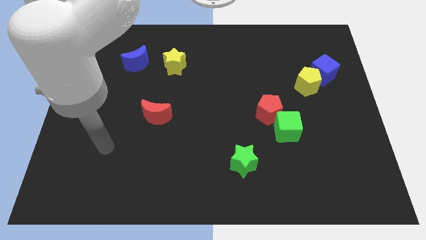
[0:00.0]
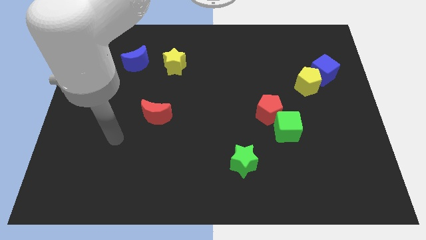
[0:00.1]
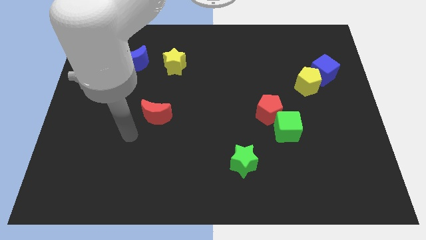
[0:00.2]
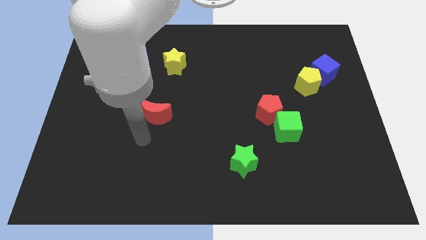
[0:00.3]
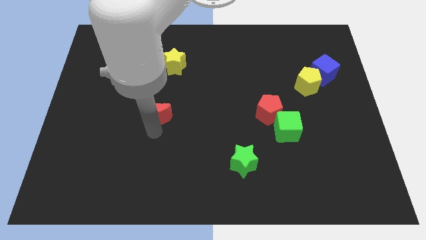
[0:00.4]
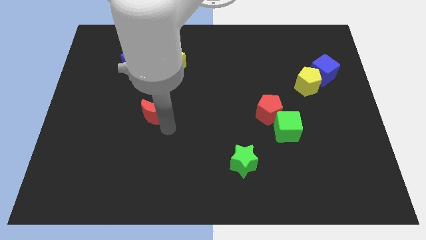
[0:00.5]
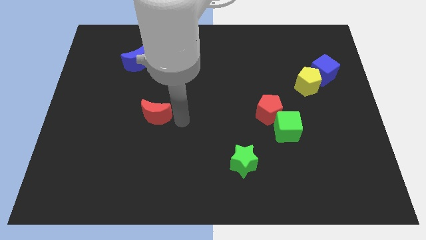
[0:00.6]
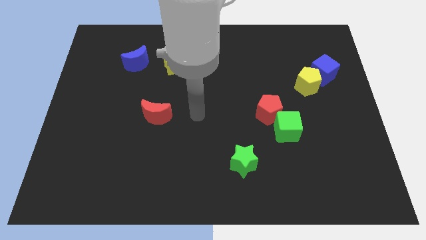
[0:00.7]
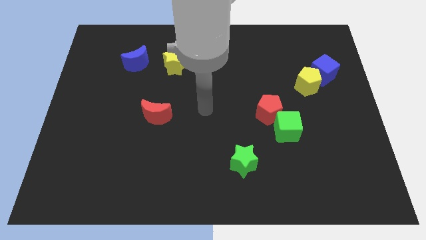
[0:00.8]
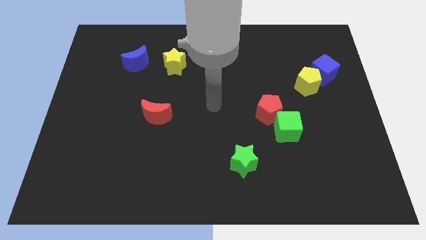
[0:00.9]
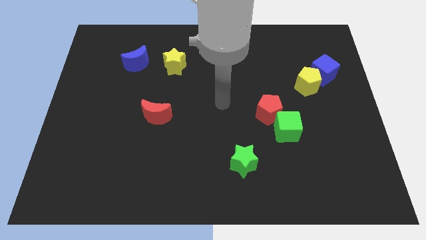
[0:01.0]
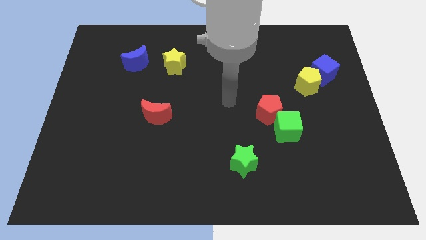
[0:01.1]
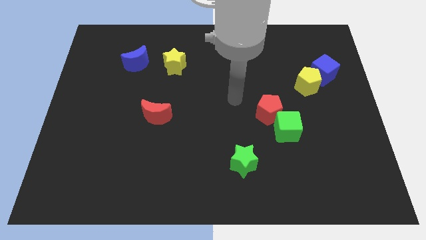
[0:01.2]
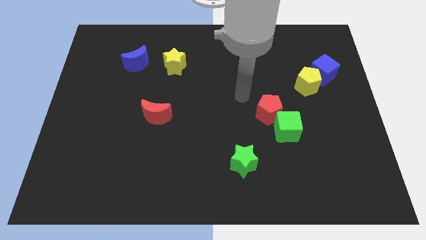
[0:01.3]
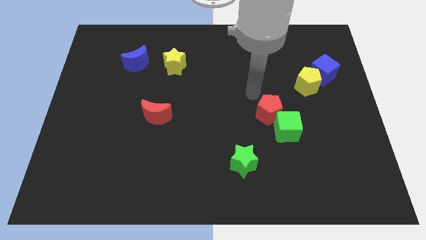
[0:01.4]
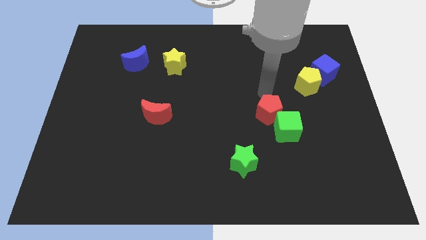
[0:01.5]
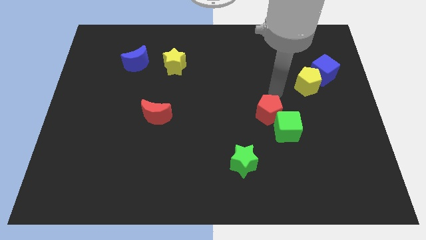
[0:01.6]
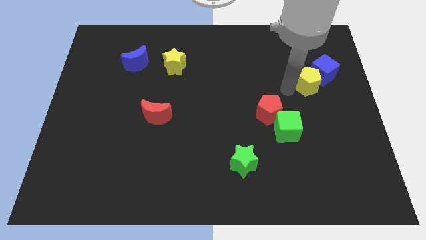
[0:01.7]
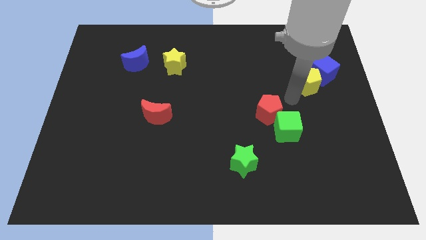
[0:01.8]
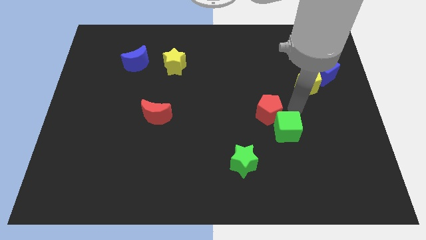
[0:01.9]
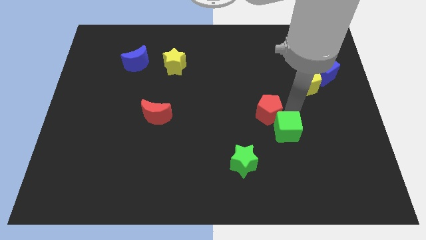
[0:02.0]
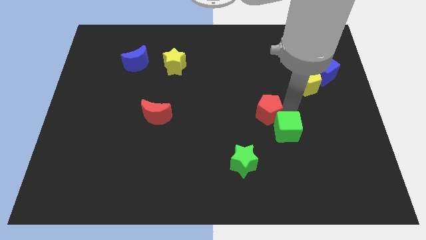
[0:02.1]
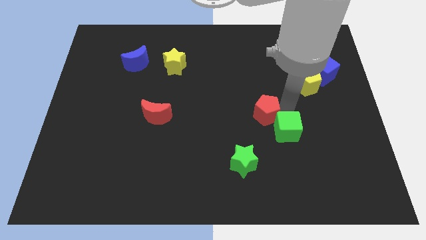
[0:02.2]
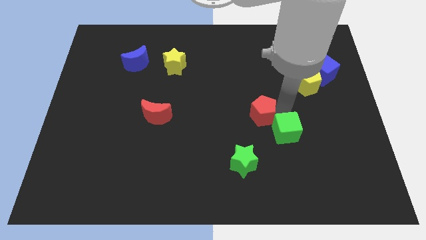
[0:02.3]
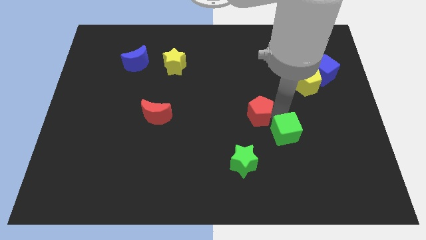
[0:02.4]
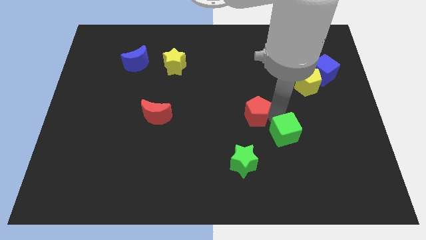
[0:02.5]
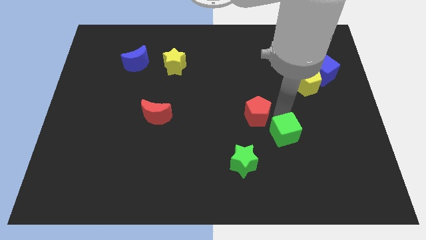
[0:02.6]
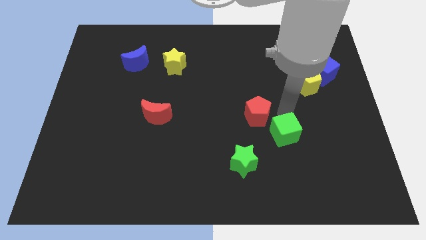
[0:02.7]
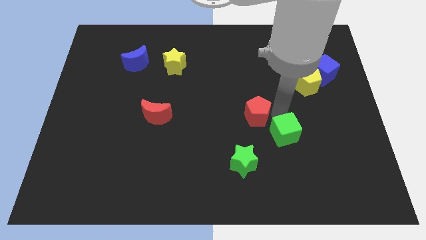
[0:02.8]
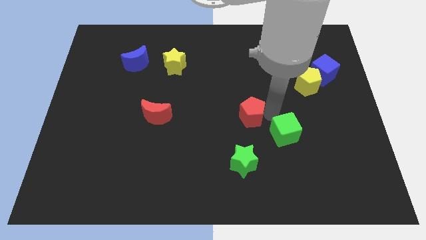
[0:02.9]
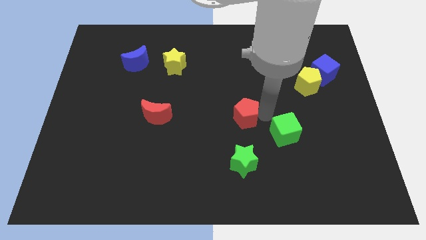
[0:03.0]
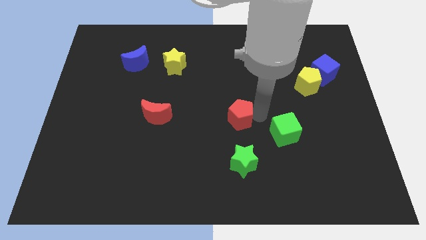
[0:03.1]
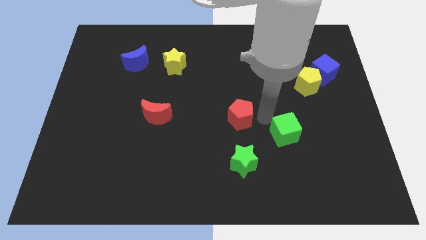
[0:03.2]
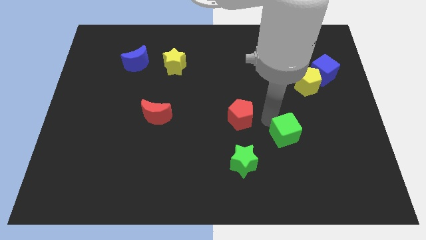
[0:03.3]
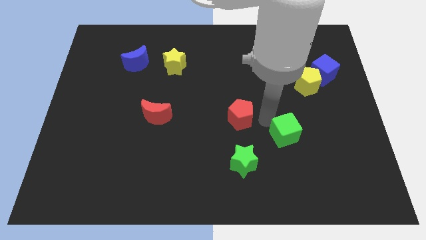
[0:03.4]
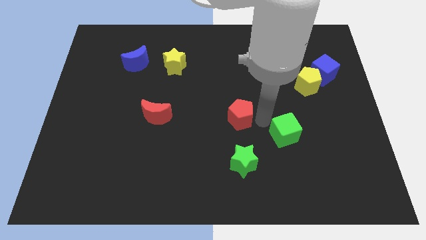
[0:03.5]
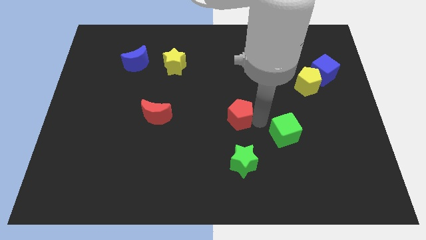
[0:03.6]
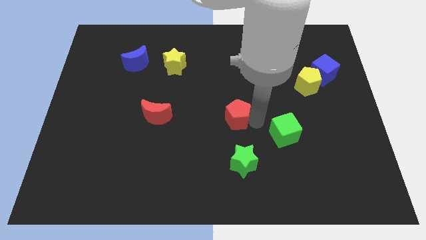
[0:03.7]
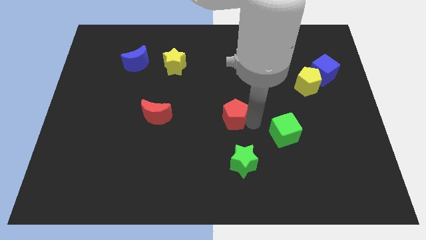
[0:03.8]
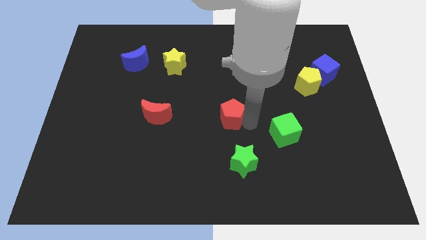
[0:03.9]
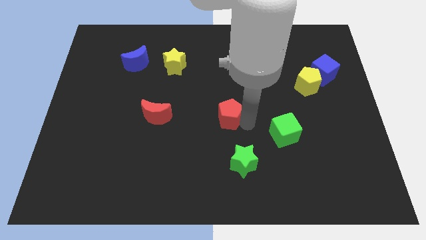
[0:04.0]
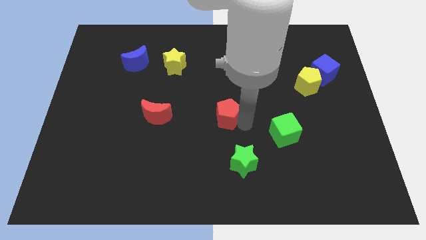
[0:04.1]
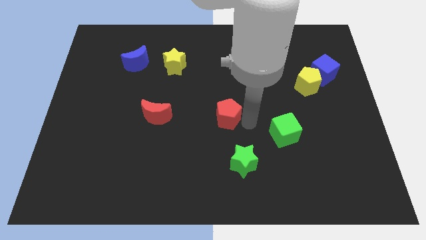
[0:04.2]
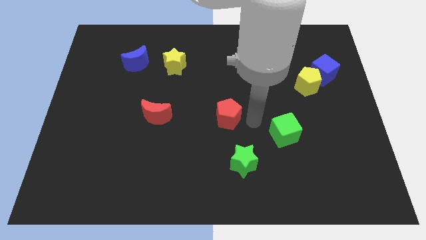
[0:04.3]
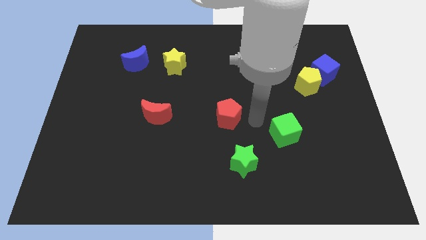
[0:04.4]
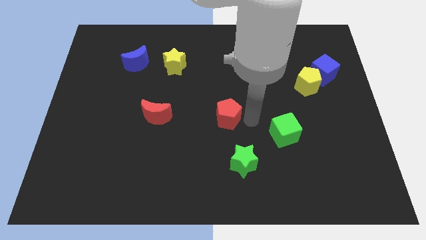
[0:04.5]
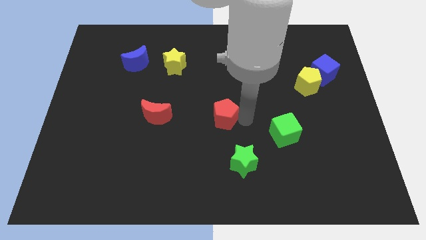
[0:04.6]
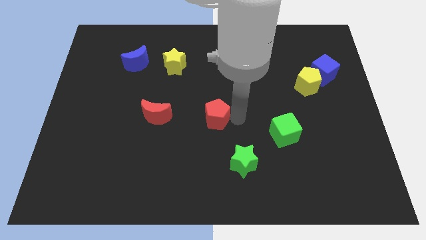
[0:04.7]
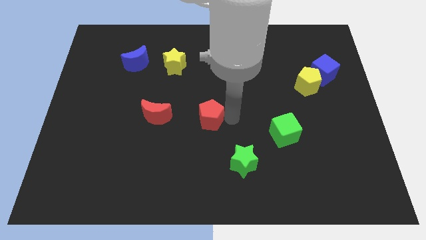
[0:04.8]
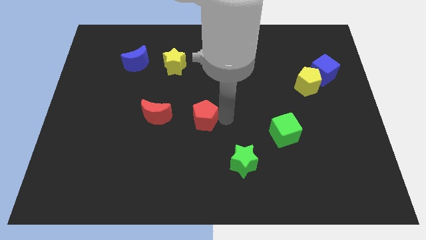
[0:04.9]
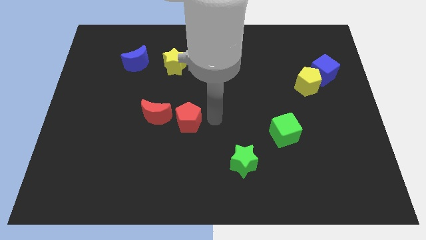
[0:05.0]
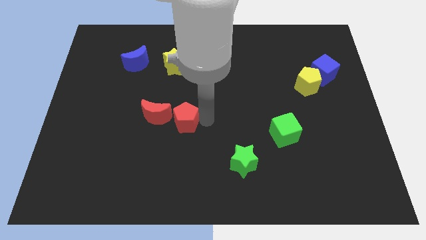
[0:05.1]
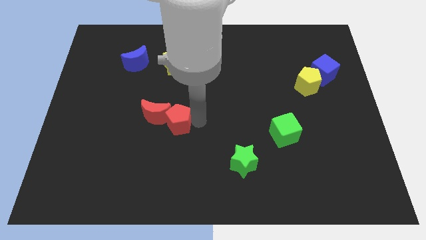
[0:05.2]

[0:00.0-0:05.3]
push the red pentagon to the red moon

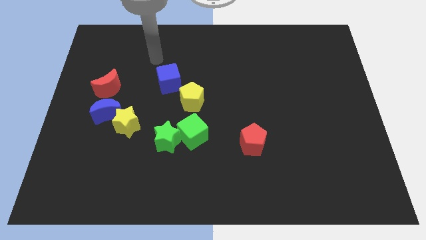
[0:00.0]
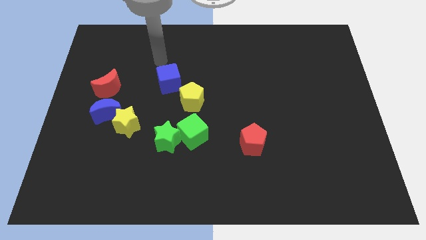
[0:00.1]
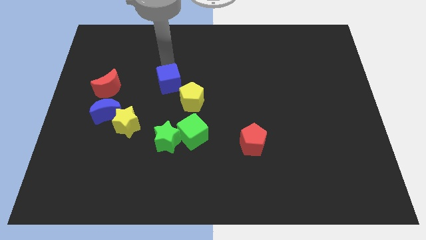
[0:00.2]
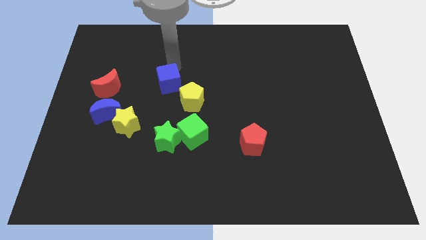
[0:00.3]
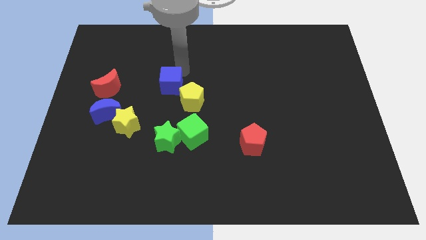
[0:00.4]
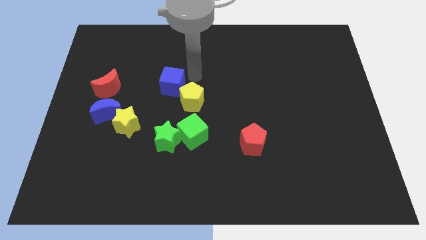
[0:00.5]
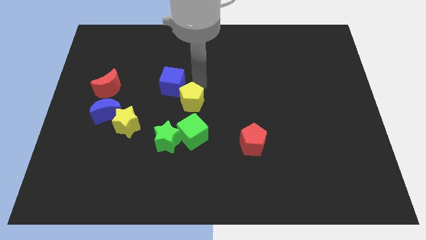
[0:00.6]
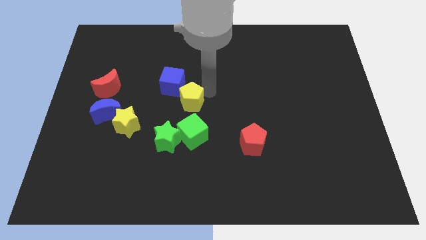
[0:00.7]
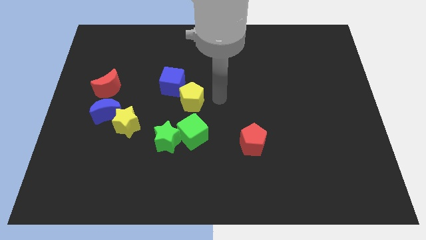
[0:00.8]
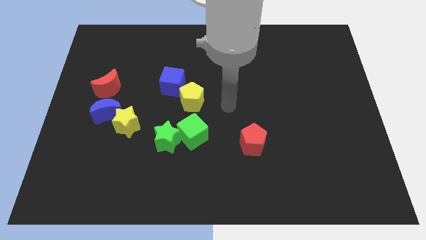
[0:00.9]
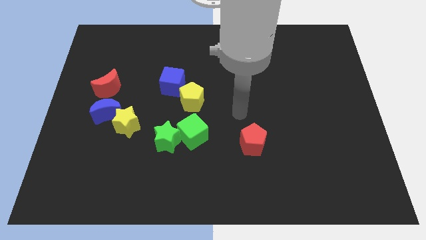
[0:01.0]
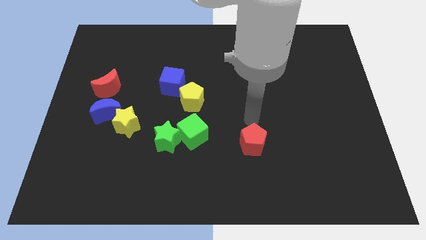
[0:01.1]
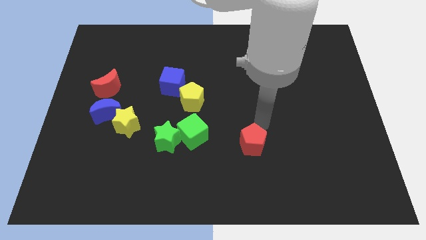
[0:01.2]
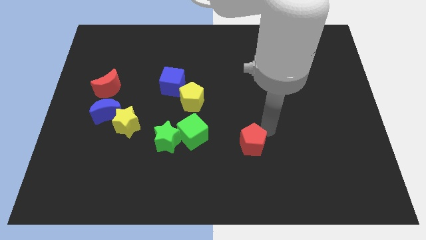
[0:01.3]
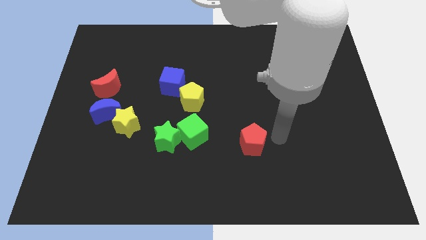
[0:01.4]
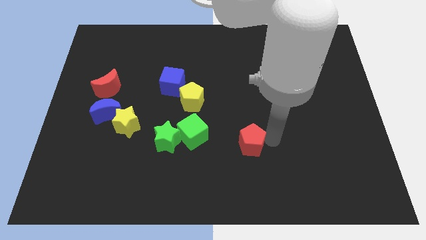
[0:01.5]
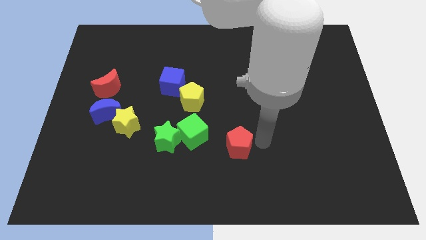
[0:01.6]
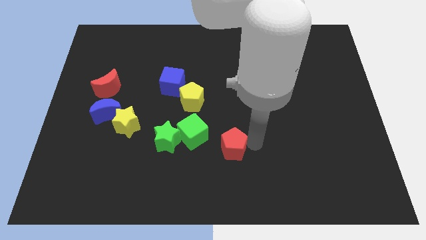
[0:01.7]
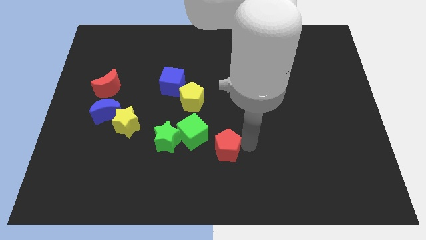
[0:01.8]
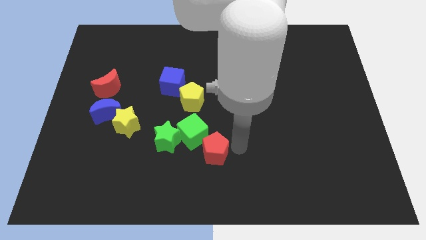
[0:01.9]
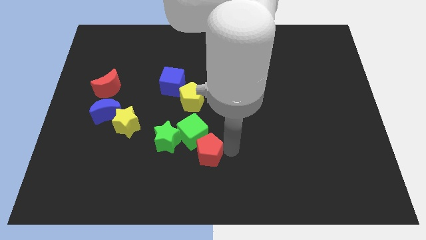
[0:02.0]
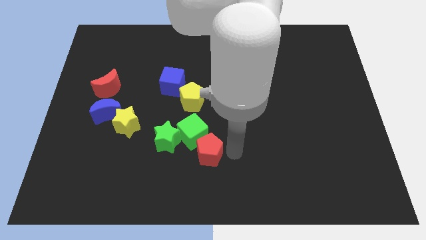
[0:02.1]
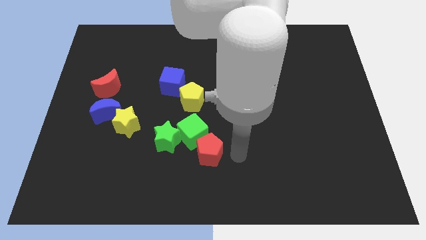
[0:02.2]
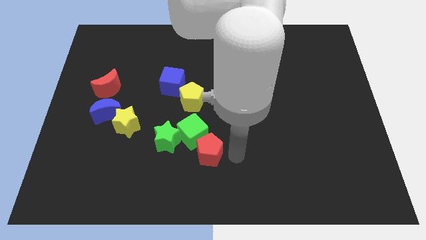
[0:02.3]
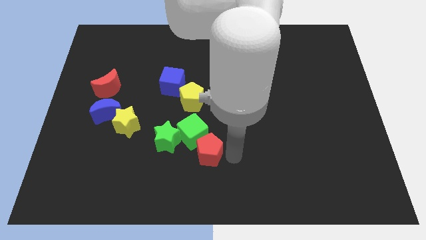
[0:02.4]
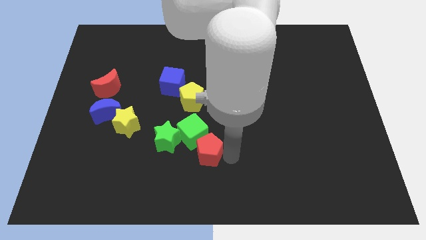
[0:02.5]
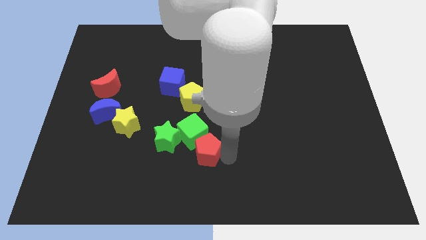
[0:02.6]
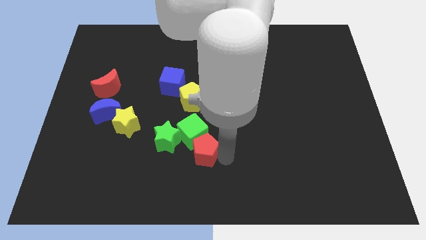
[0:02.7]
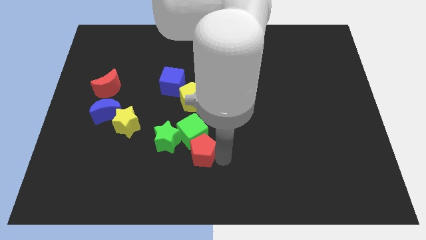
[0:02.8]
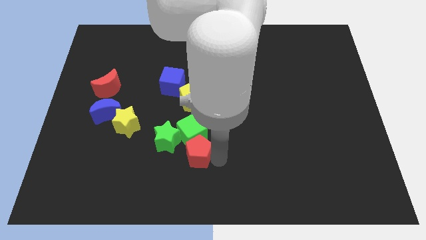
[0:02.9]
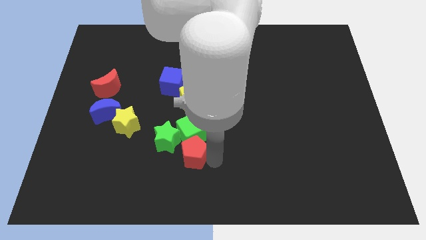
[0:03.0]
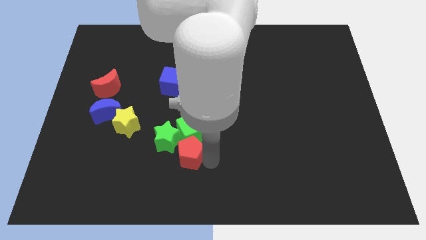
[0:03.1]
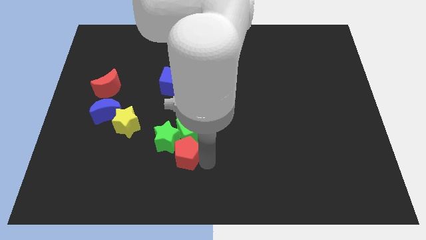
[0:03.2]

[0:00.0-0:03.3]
put the red pentagon close to the green star
